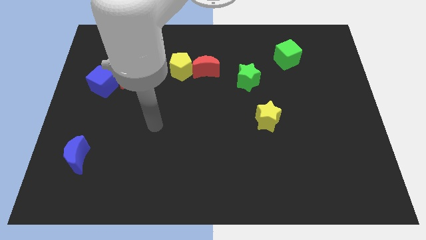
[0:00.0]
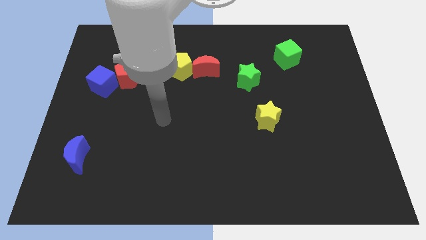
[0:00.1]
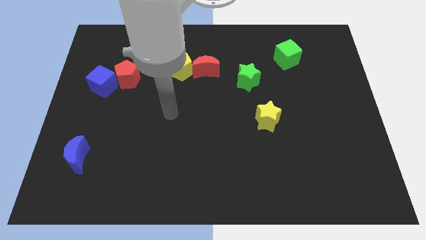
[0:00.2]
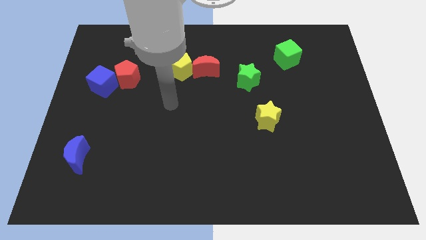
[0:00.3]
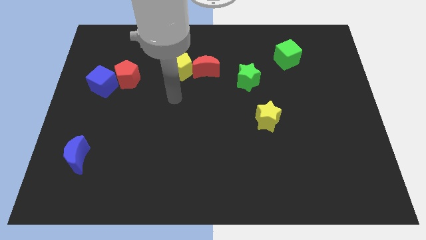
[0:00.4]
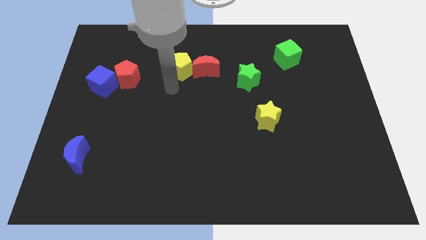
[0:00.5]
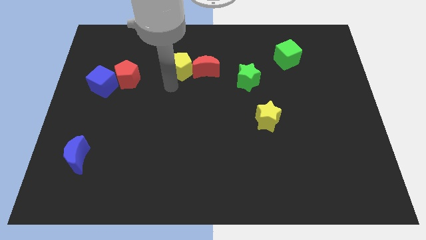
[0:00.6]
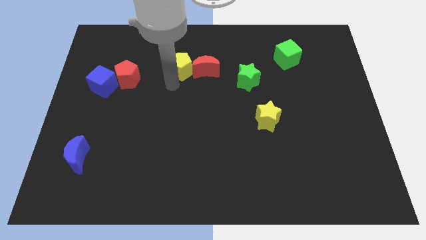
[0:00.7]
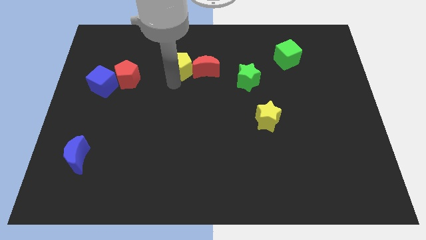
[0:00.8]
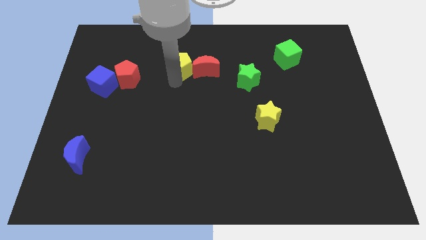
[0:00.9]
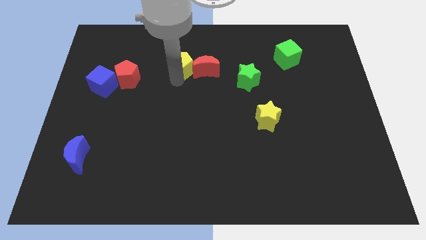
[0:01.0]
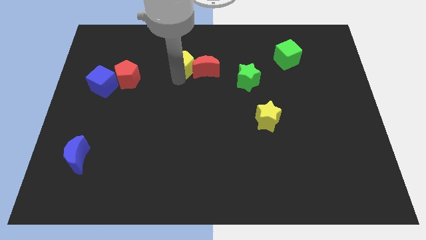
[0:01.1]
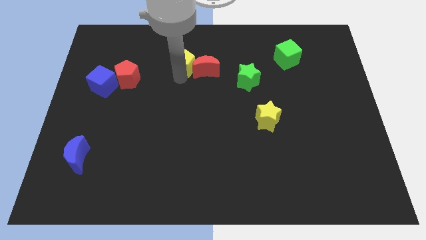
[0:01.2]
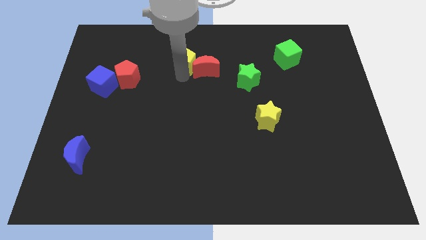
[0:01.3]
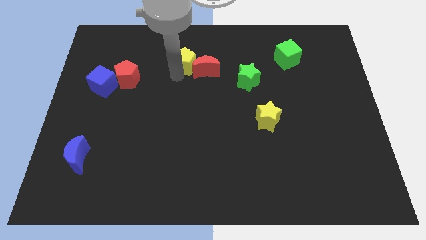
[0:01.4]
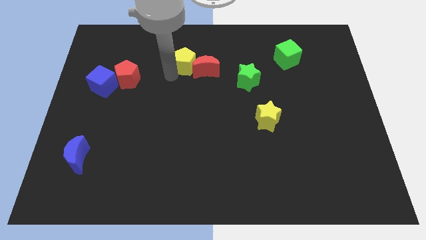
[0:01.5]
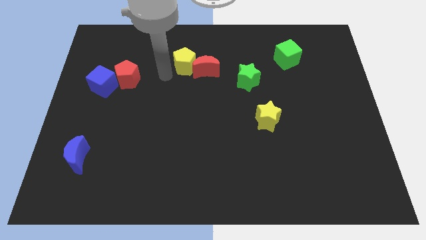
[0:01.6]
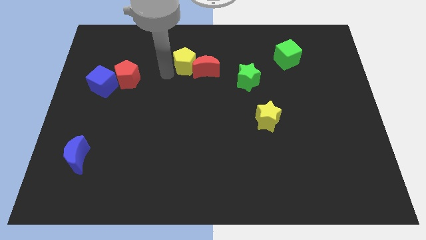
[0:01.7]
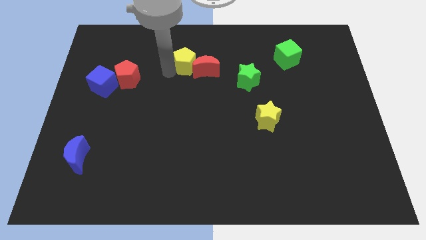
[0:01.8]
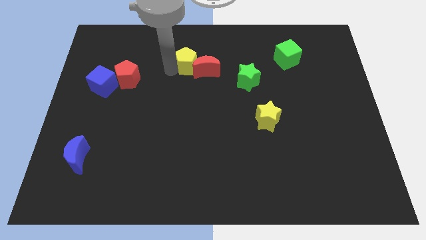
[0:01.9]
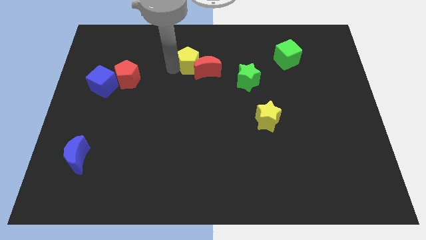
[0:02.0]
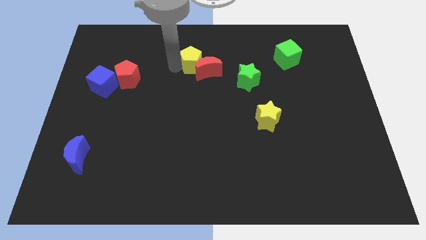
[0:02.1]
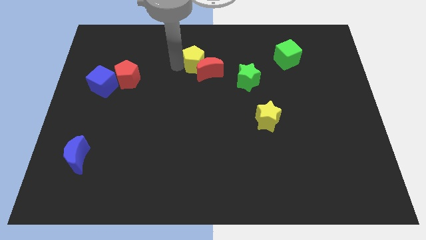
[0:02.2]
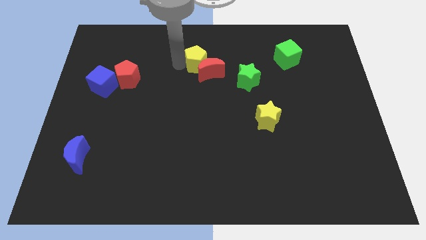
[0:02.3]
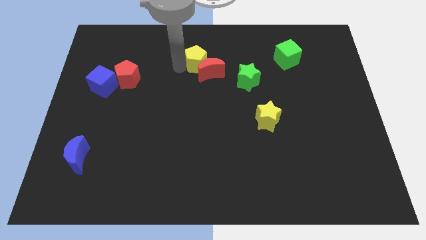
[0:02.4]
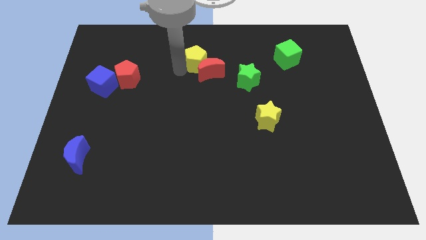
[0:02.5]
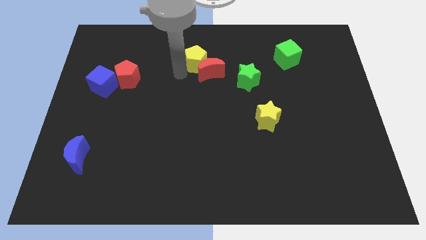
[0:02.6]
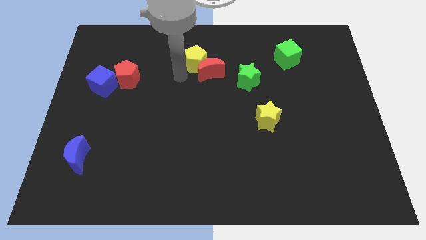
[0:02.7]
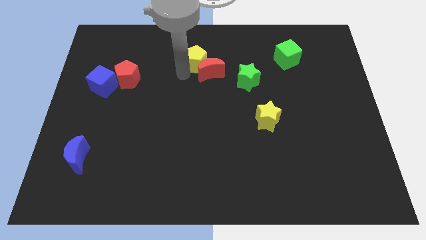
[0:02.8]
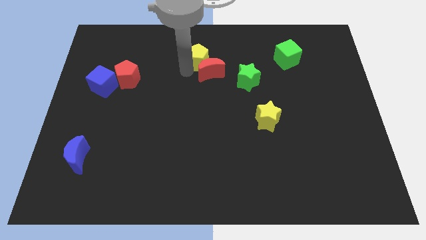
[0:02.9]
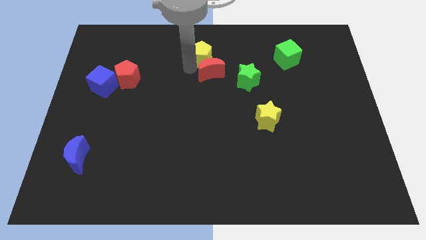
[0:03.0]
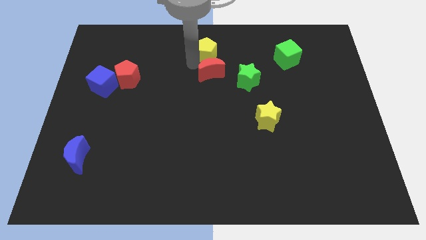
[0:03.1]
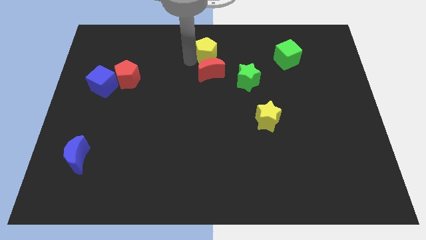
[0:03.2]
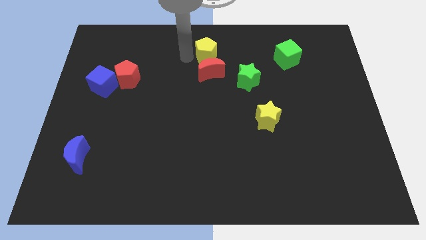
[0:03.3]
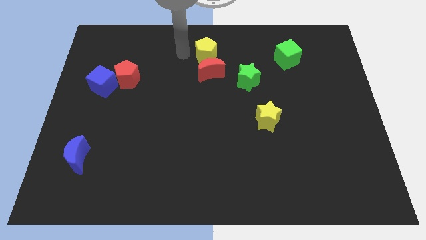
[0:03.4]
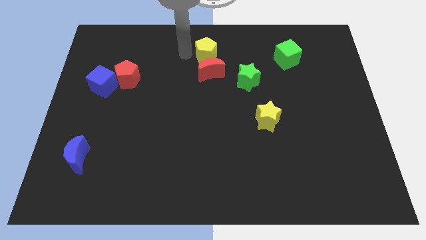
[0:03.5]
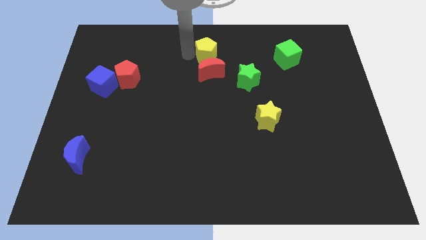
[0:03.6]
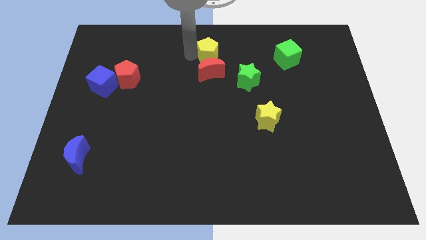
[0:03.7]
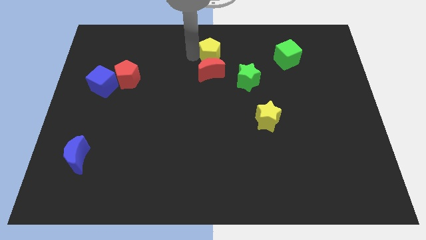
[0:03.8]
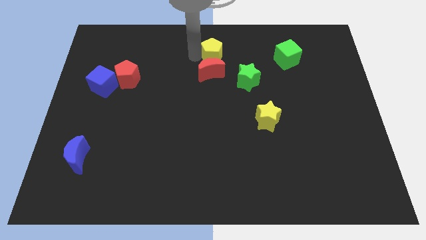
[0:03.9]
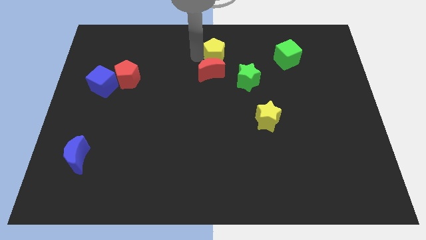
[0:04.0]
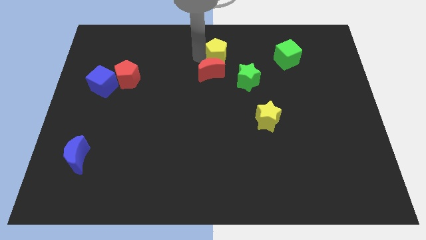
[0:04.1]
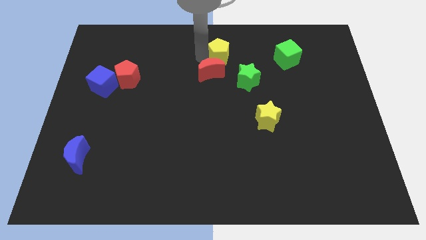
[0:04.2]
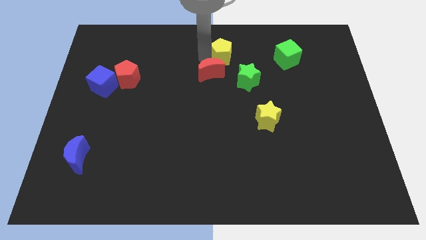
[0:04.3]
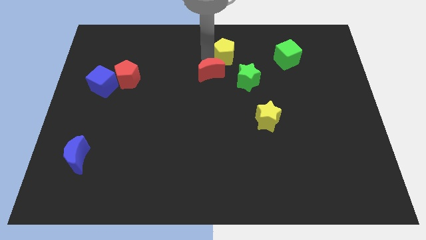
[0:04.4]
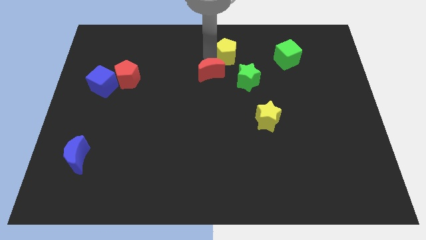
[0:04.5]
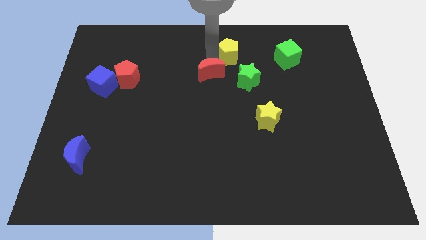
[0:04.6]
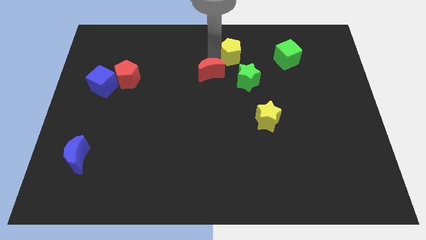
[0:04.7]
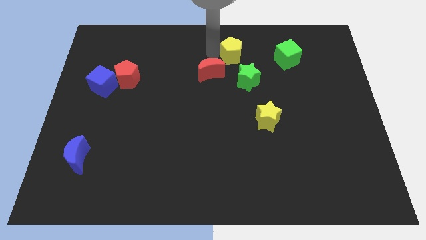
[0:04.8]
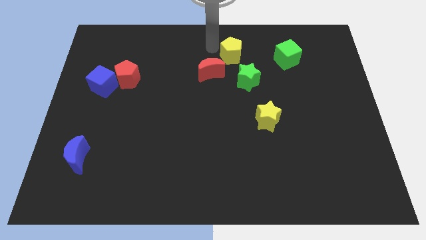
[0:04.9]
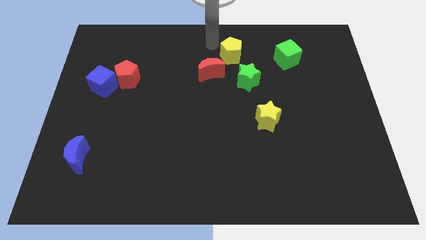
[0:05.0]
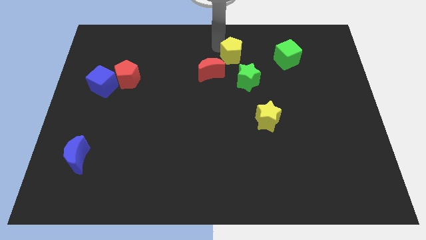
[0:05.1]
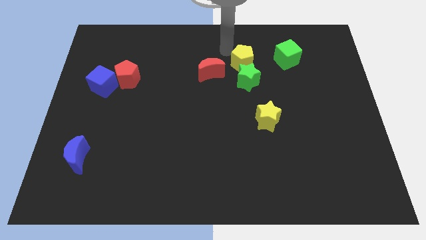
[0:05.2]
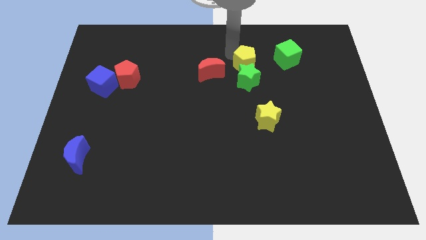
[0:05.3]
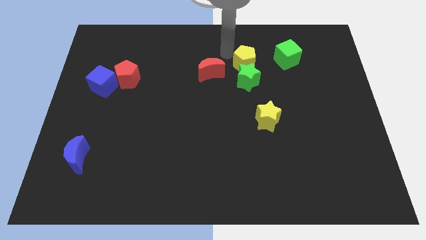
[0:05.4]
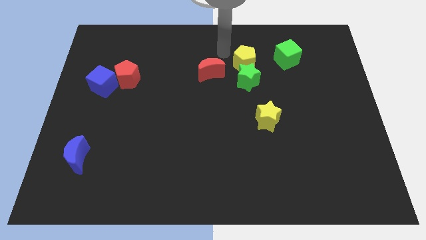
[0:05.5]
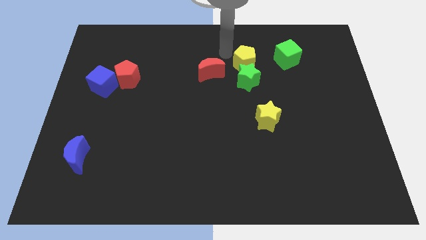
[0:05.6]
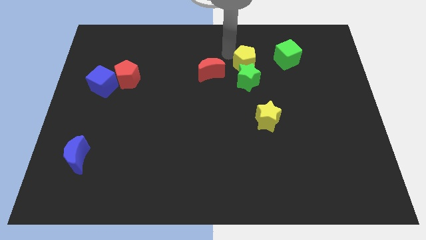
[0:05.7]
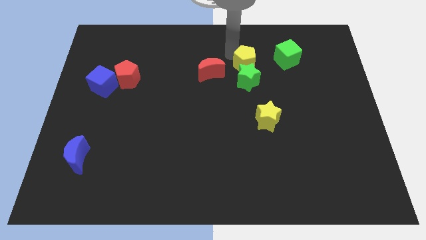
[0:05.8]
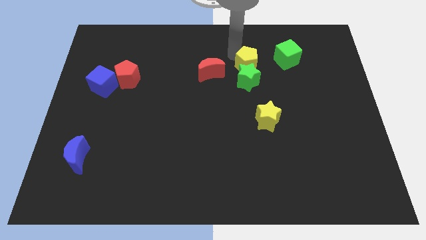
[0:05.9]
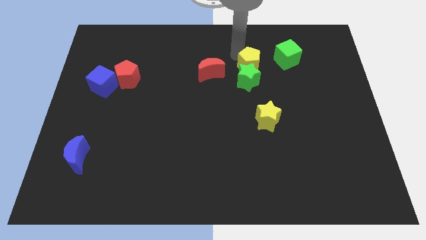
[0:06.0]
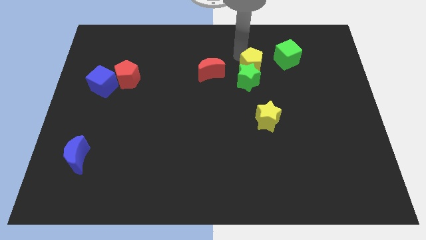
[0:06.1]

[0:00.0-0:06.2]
put the yellow pentagon to the bottom left side of the green cube
